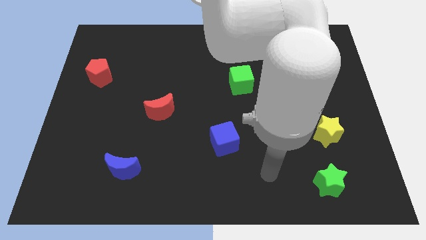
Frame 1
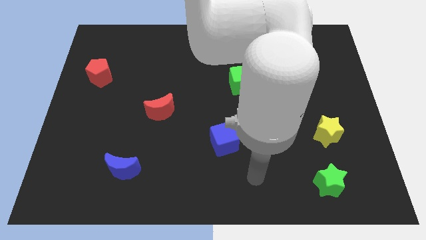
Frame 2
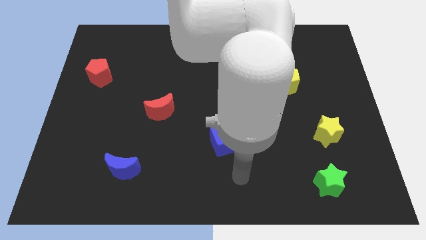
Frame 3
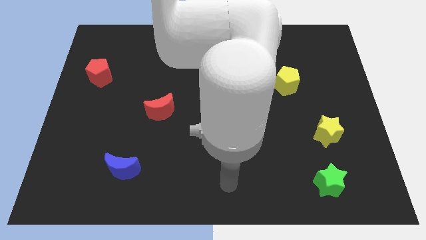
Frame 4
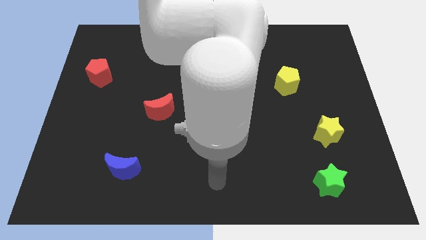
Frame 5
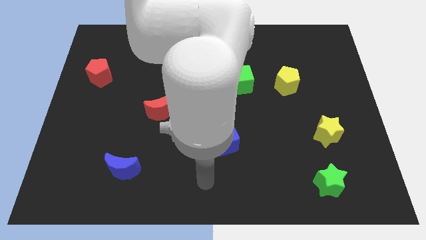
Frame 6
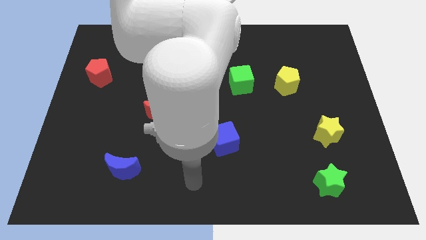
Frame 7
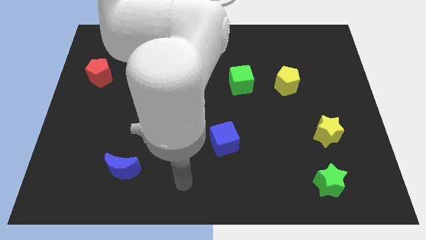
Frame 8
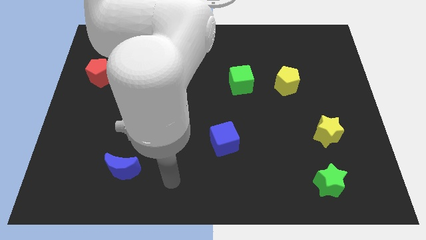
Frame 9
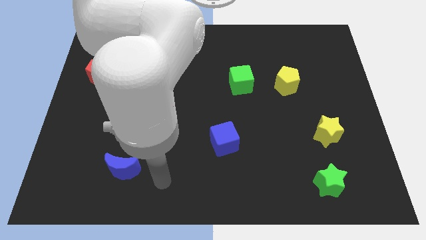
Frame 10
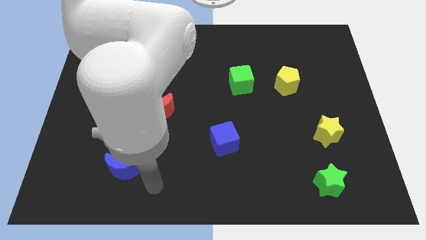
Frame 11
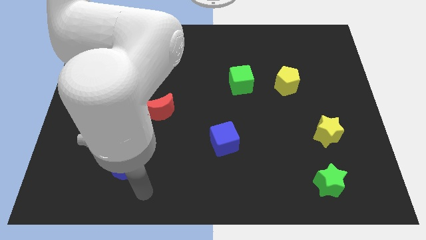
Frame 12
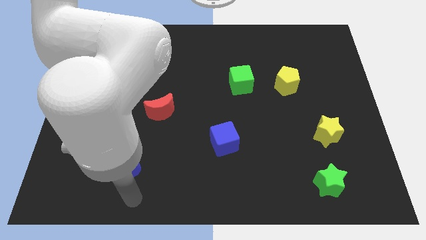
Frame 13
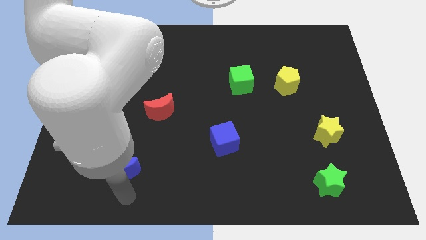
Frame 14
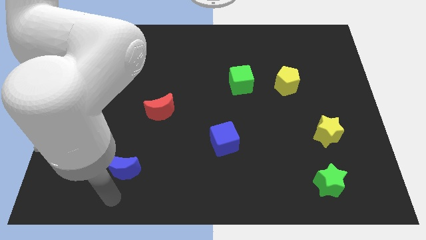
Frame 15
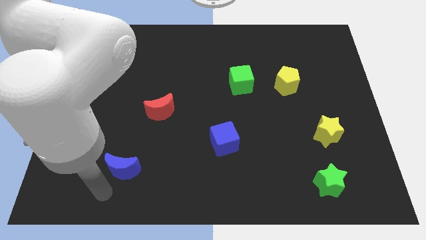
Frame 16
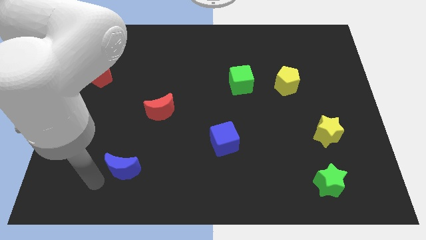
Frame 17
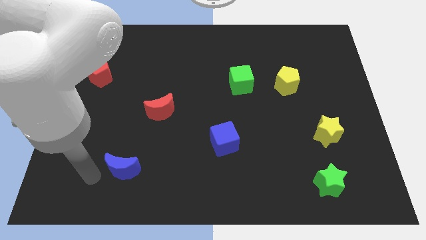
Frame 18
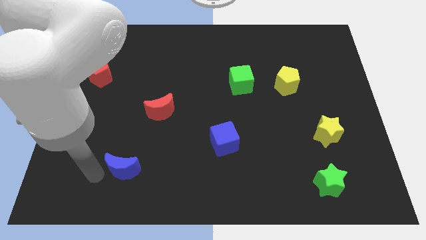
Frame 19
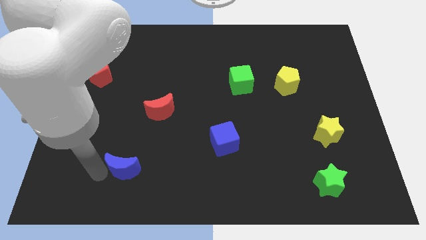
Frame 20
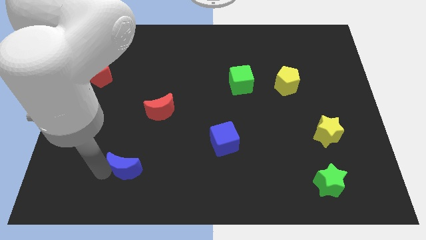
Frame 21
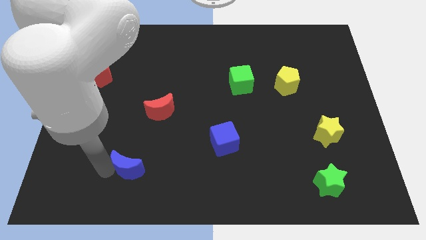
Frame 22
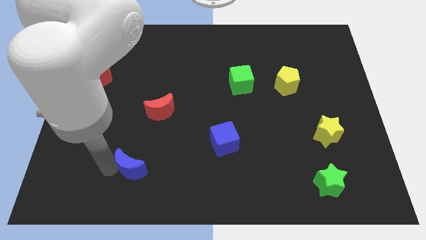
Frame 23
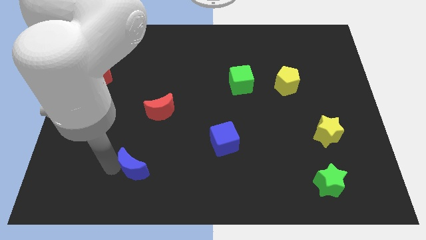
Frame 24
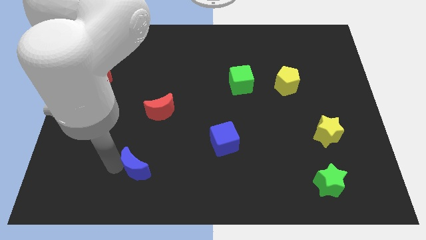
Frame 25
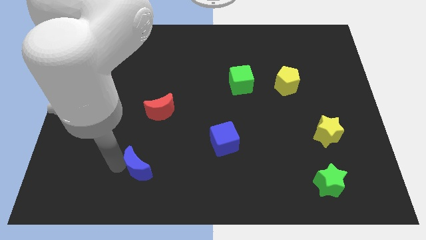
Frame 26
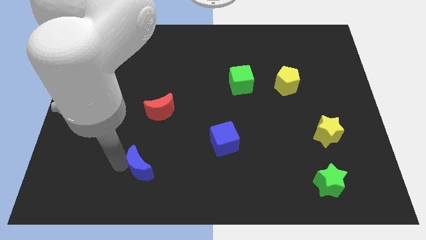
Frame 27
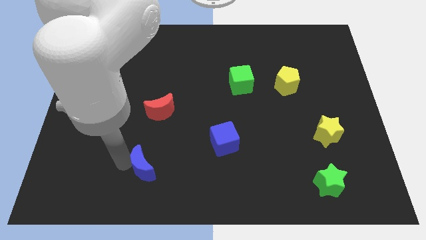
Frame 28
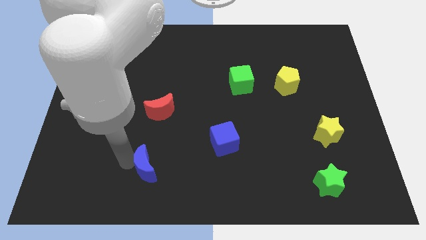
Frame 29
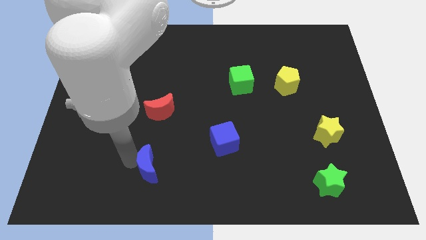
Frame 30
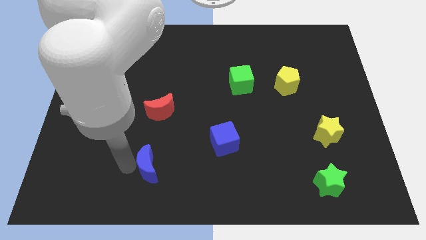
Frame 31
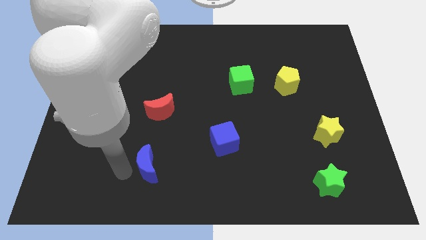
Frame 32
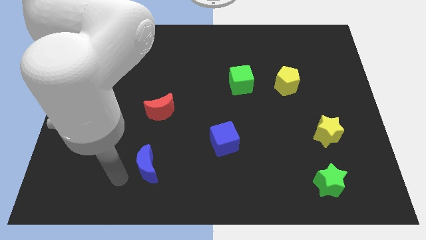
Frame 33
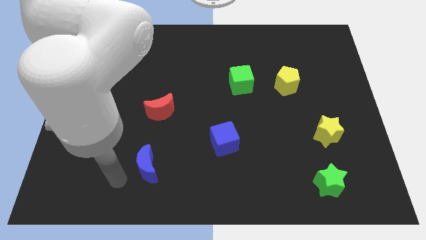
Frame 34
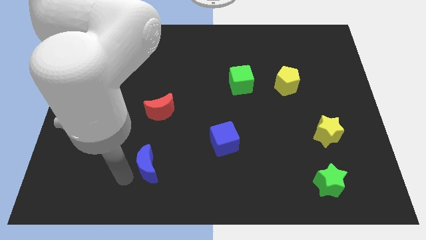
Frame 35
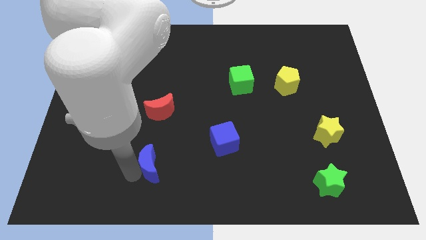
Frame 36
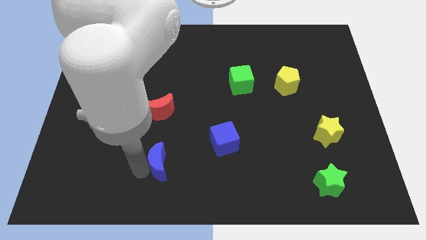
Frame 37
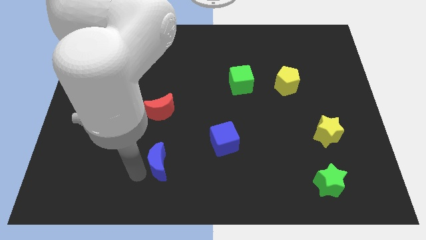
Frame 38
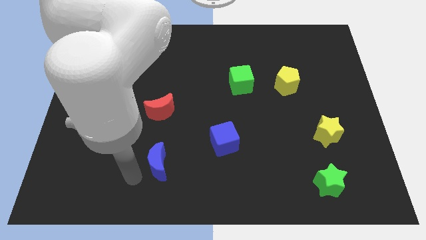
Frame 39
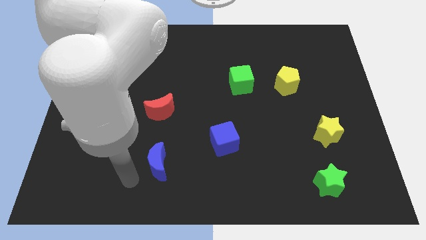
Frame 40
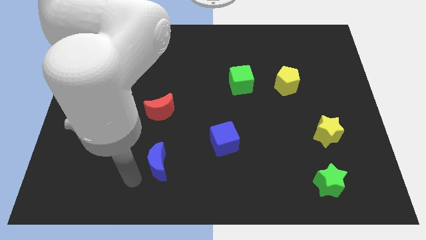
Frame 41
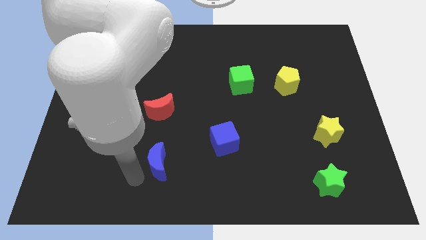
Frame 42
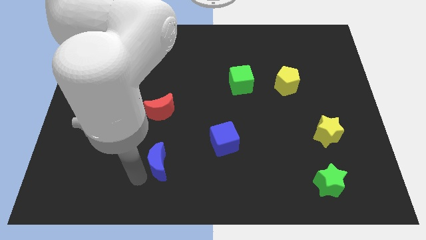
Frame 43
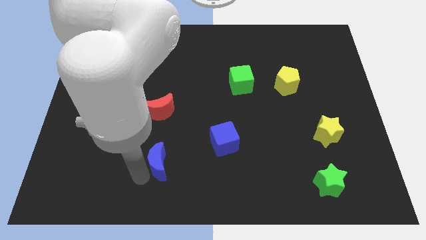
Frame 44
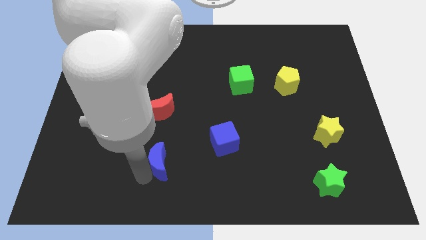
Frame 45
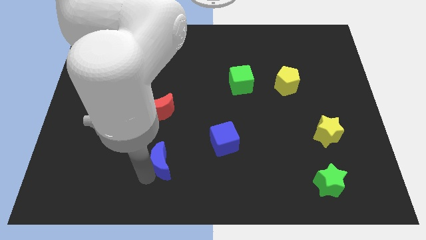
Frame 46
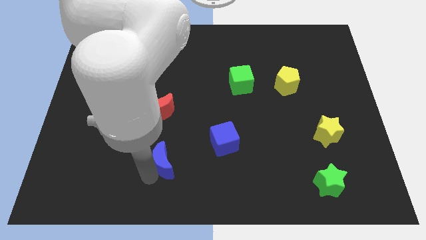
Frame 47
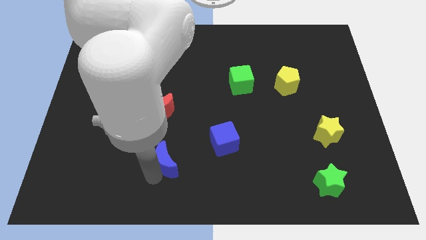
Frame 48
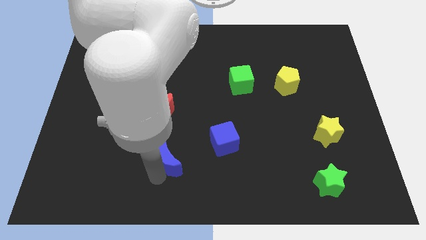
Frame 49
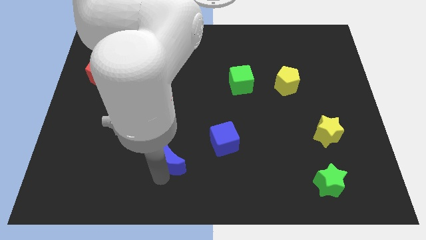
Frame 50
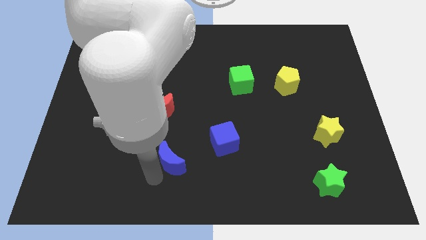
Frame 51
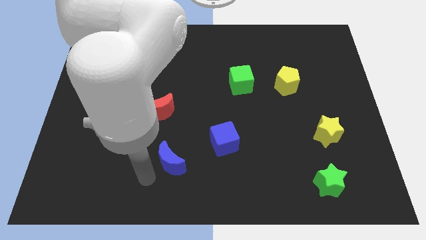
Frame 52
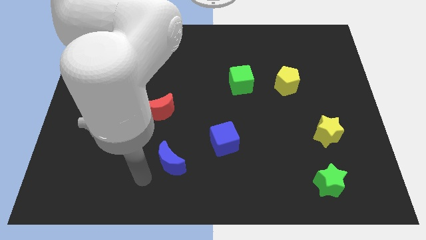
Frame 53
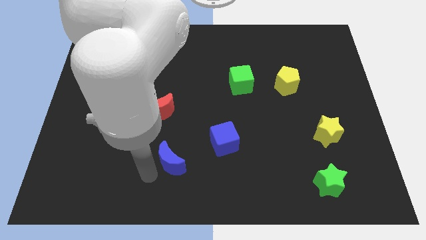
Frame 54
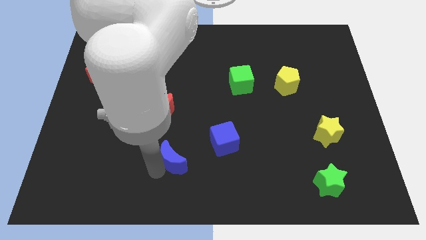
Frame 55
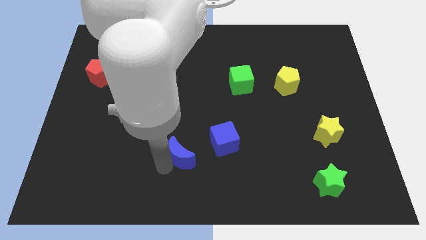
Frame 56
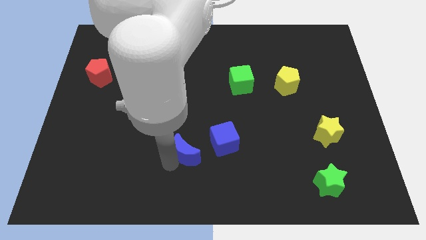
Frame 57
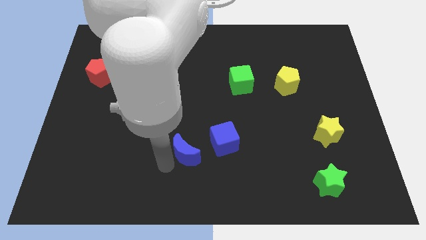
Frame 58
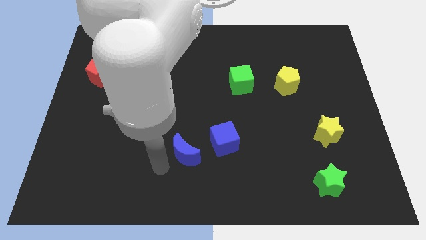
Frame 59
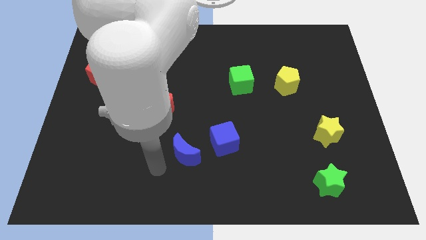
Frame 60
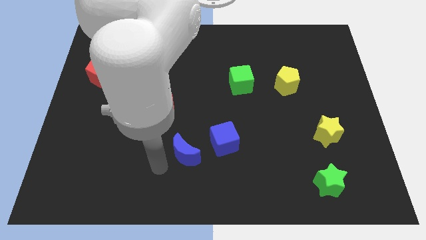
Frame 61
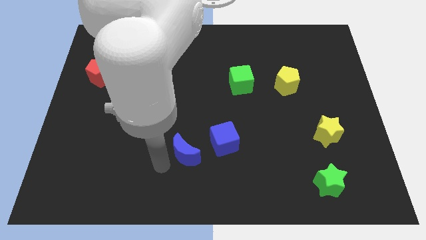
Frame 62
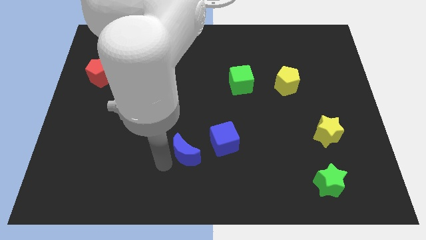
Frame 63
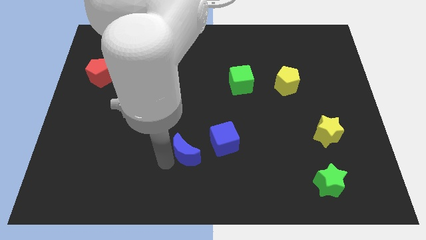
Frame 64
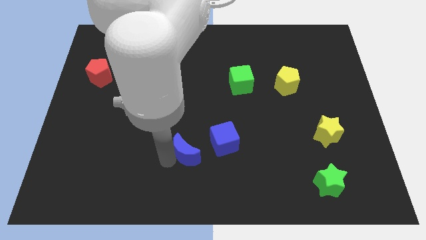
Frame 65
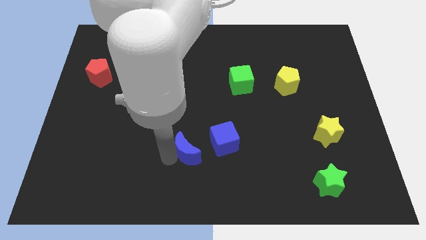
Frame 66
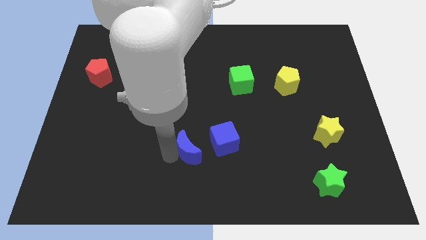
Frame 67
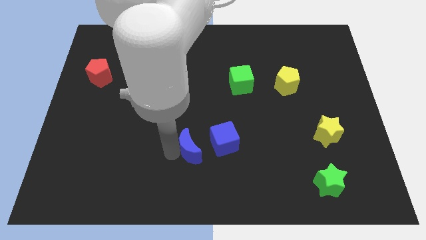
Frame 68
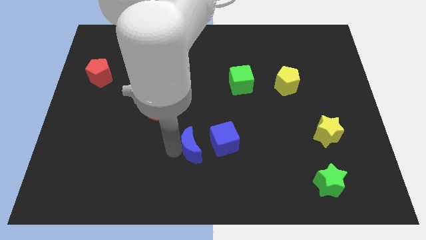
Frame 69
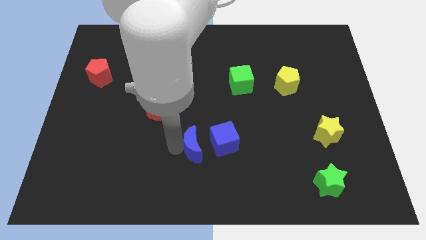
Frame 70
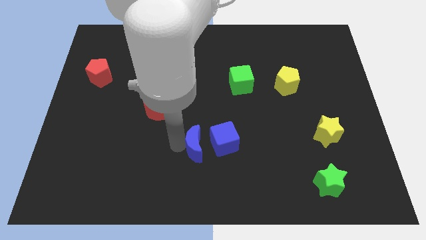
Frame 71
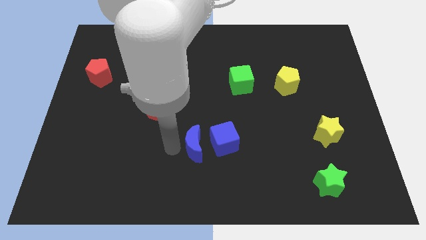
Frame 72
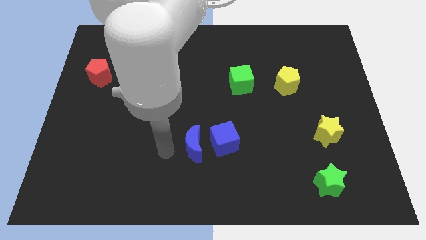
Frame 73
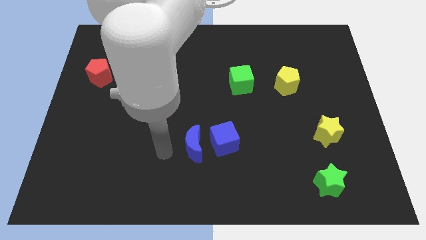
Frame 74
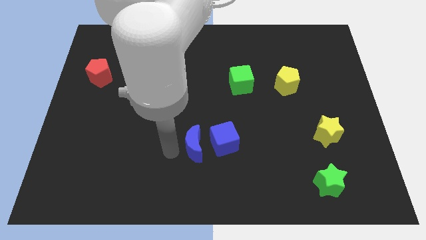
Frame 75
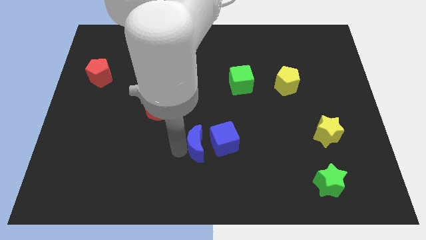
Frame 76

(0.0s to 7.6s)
put the blue moon close to the blue cube
